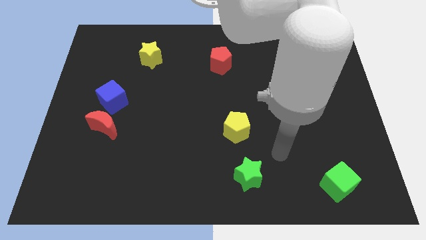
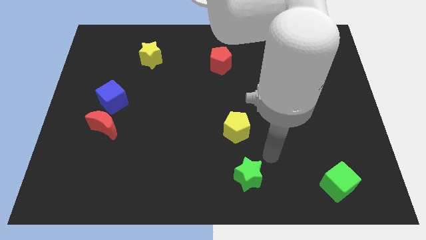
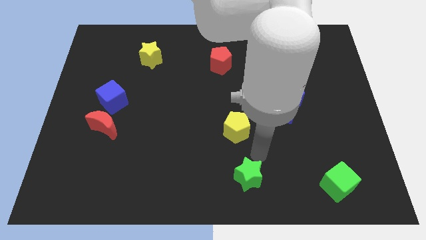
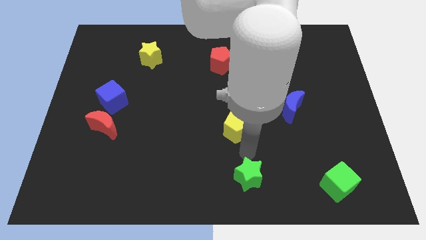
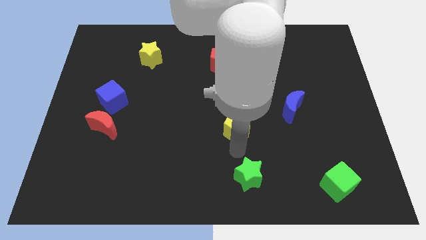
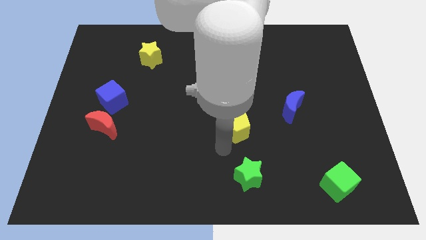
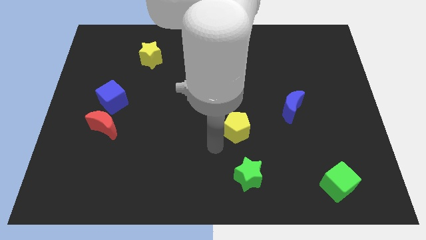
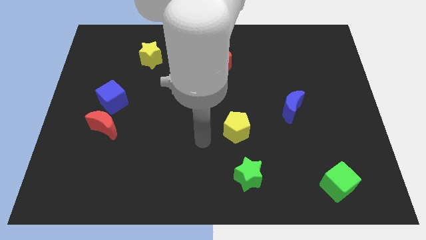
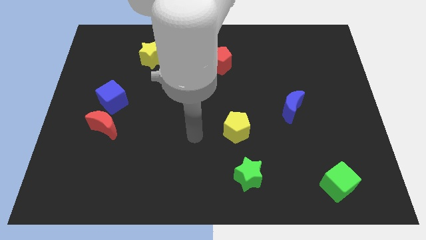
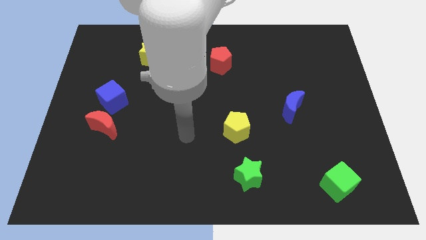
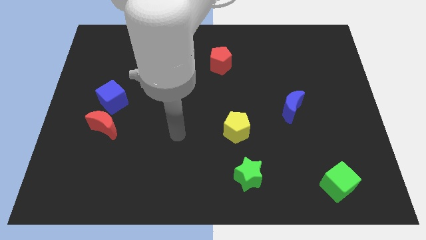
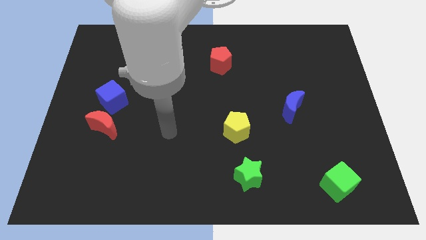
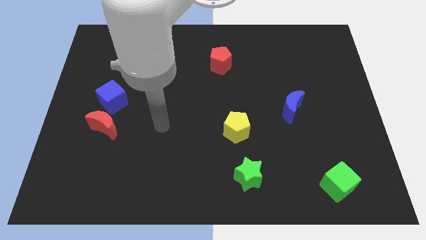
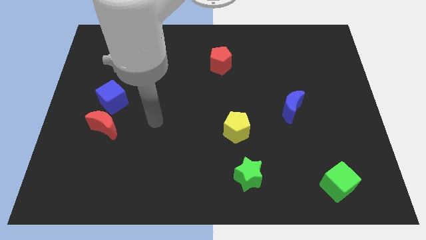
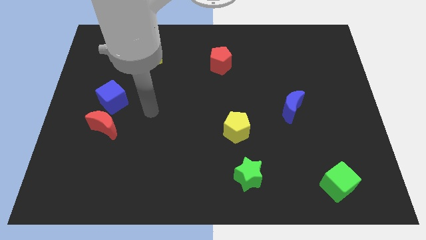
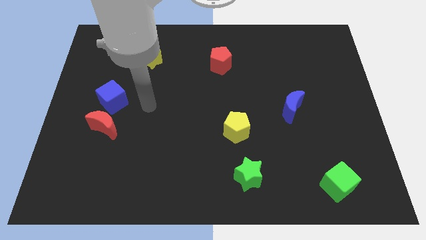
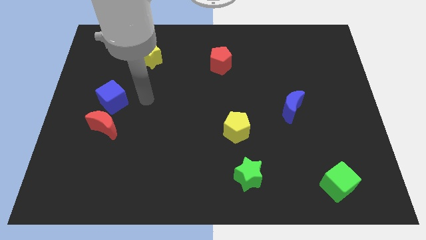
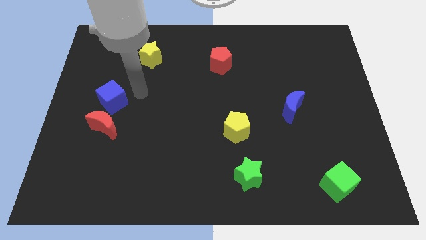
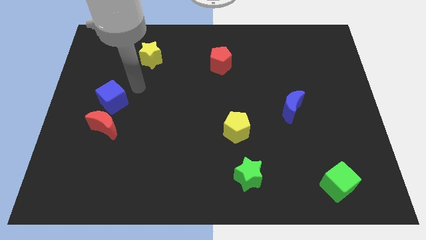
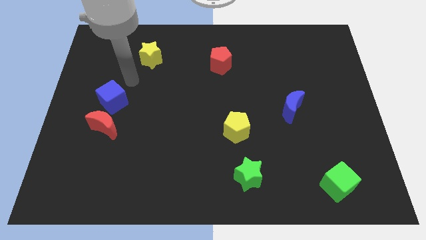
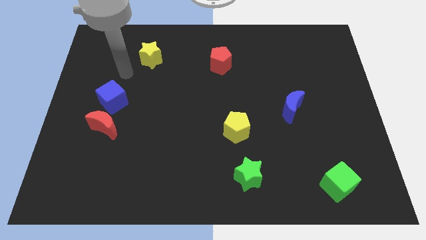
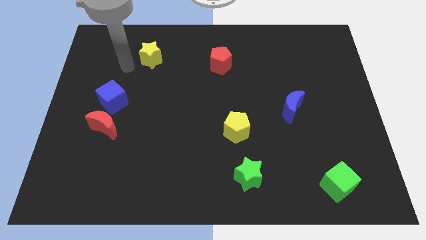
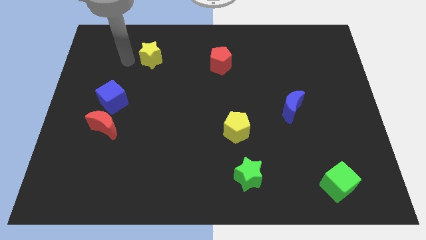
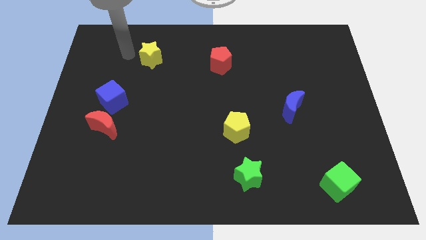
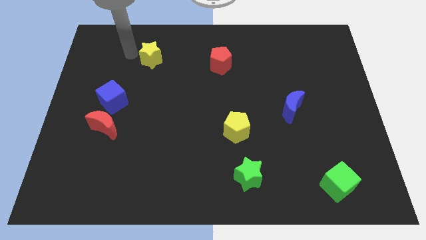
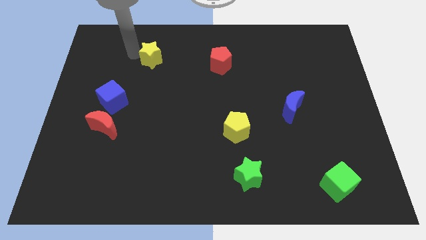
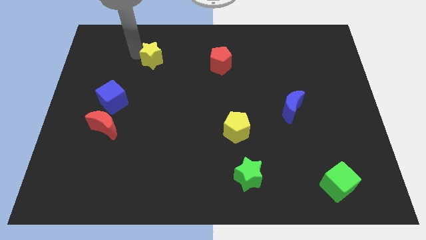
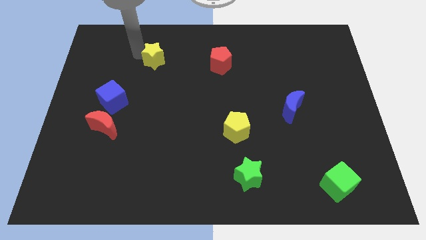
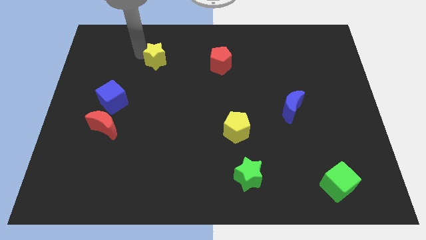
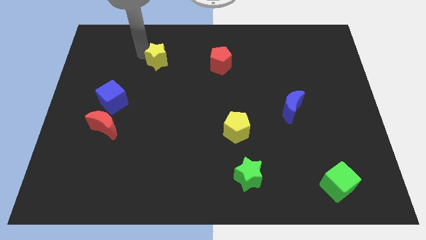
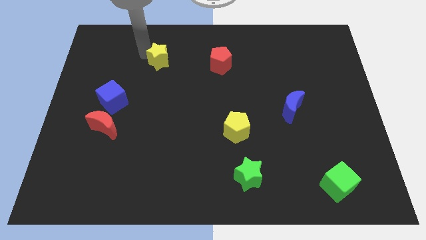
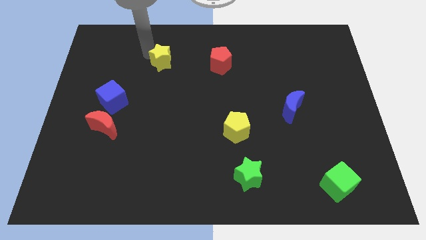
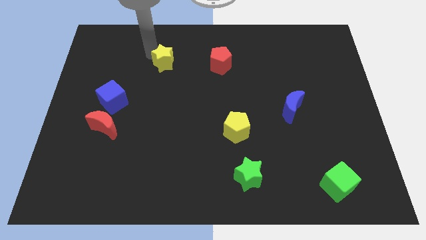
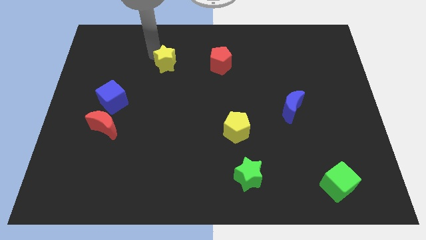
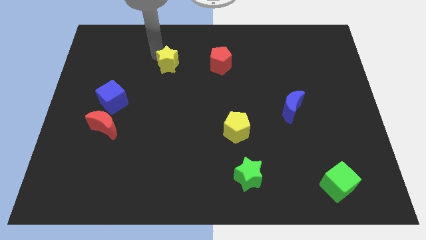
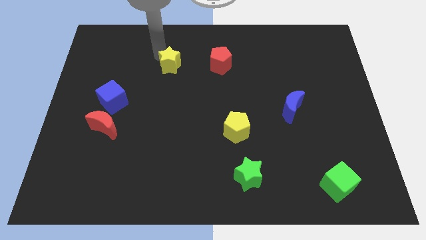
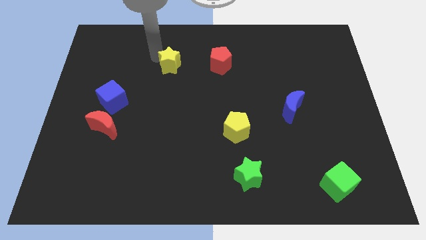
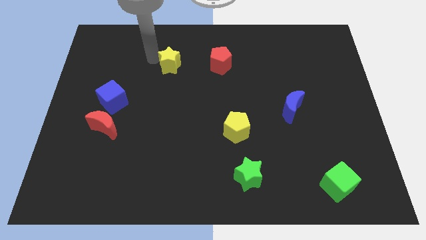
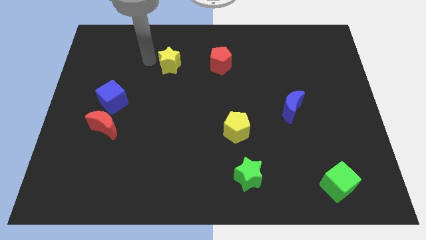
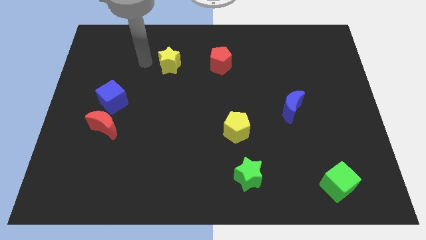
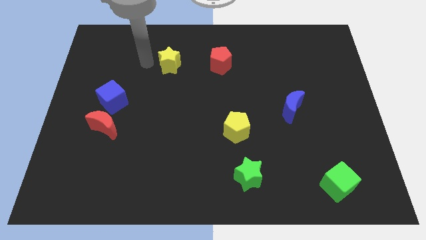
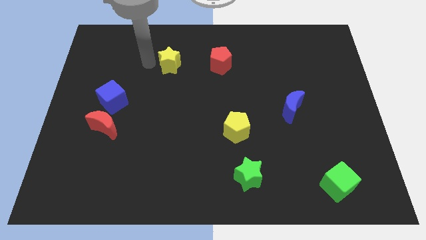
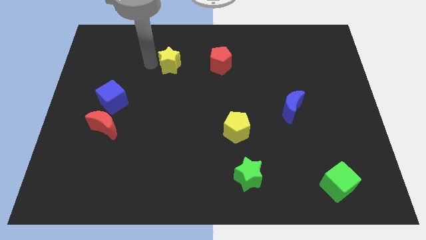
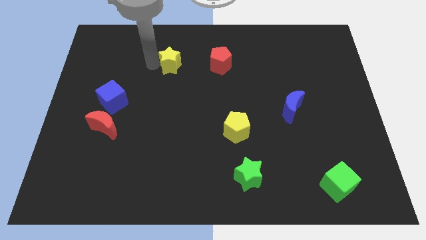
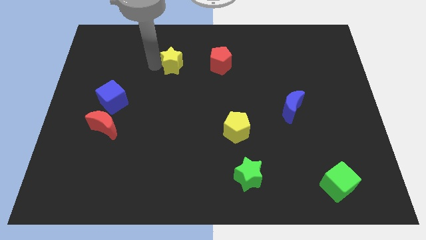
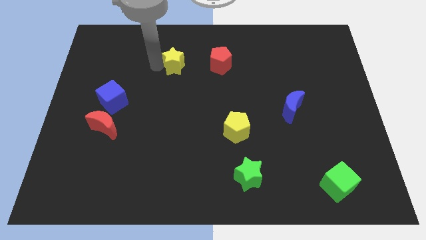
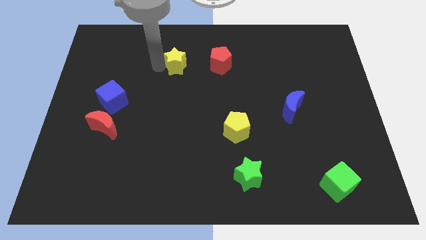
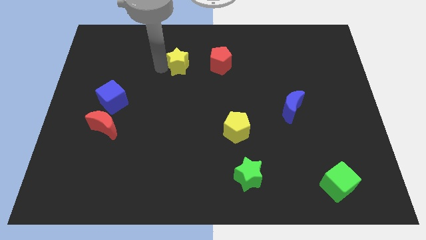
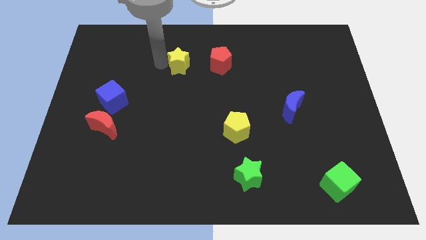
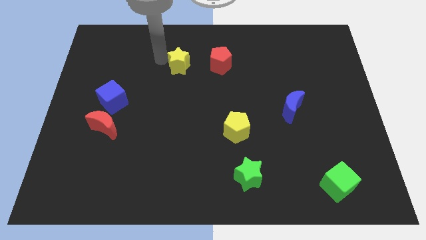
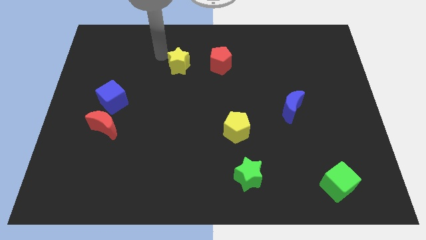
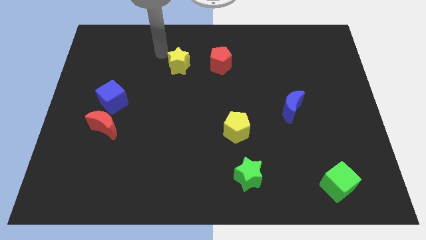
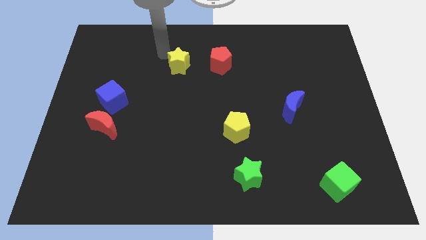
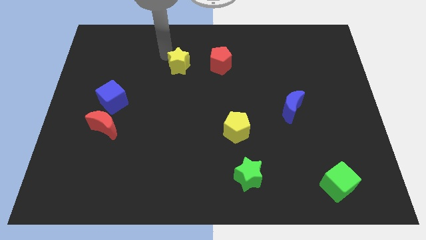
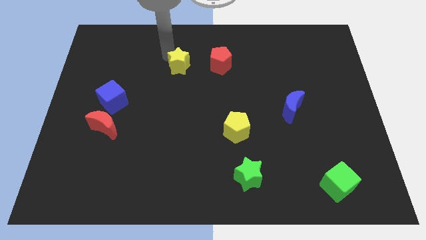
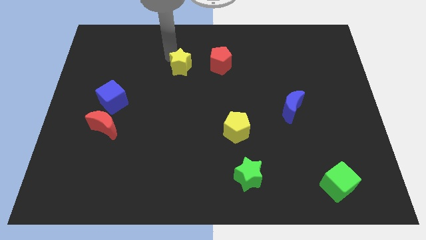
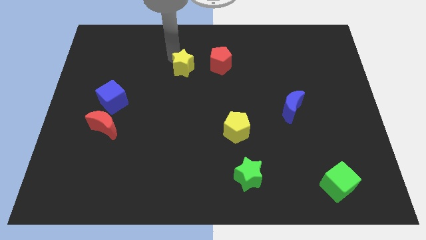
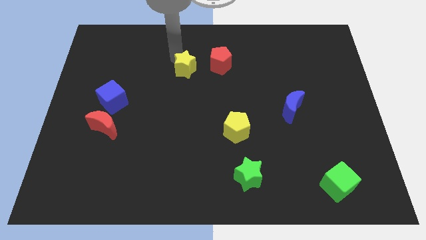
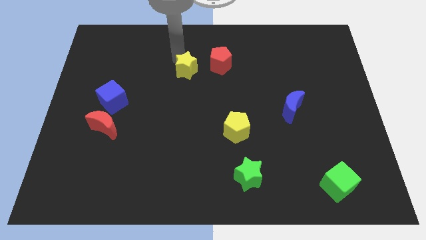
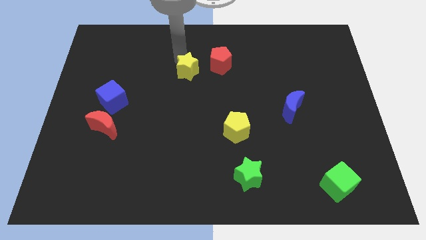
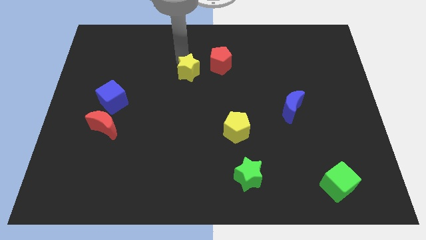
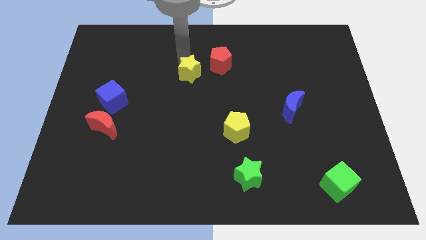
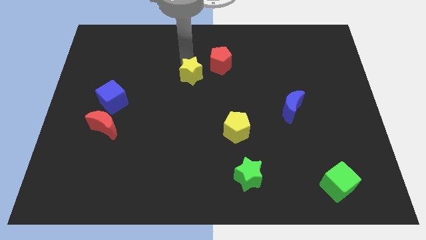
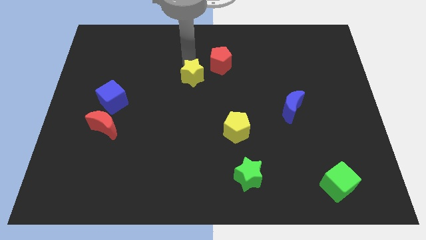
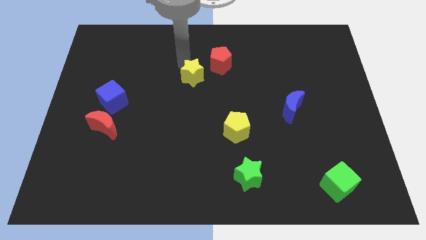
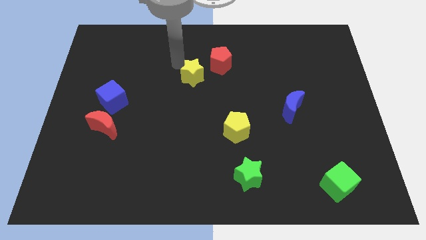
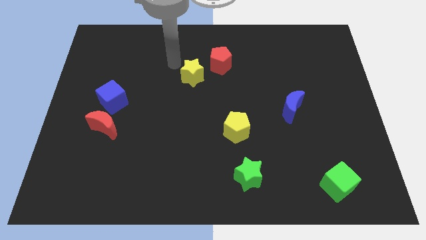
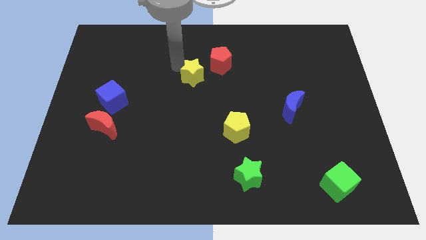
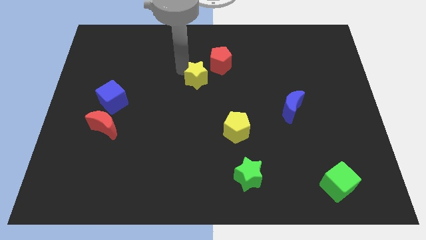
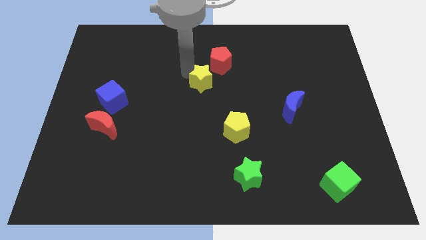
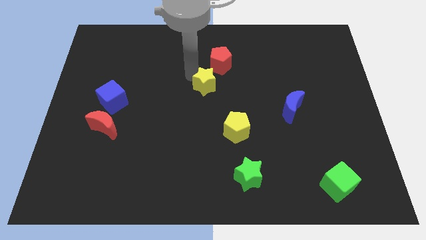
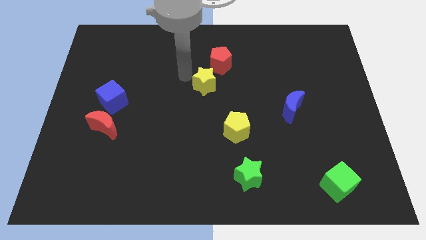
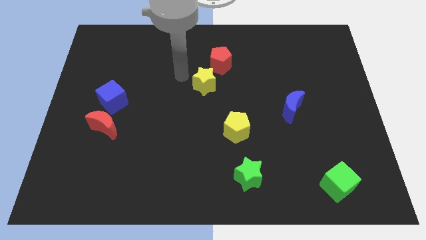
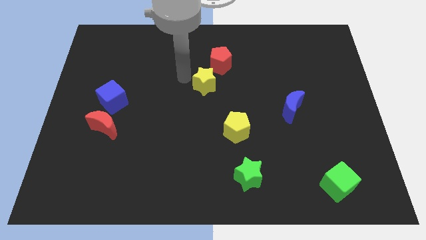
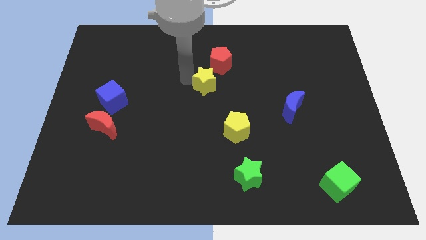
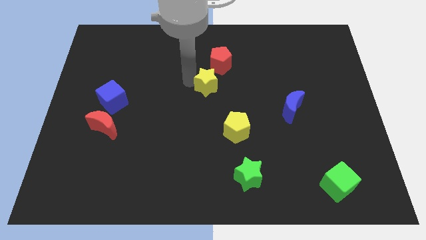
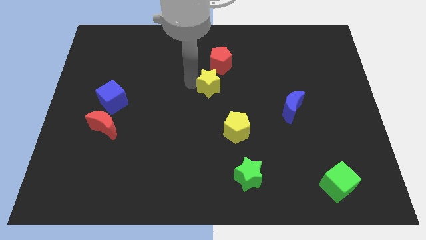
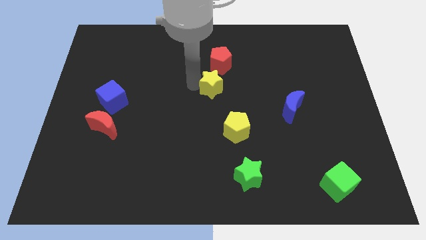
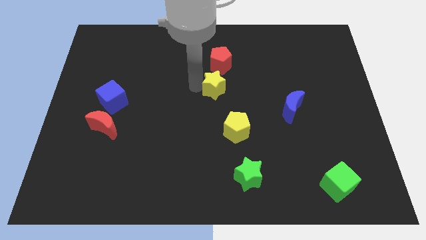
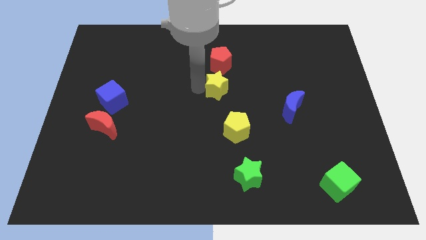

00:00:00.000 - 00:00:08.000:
put the yellow star to the top side of the yellow pentagon
